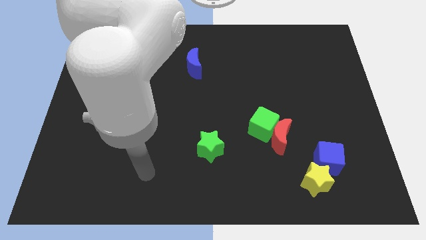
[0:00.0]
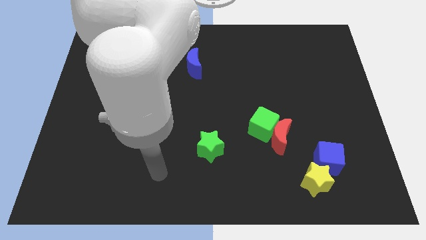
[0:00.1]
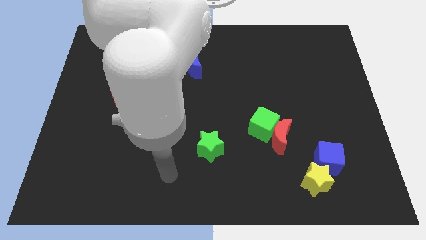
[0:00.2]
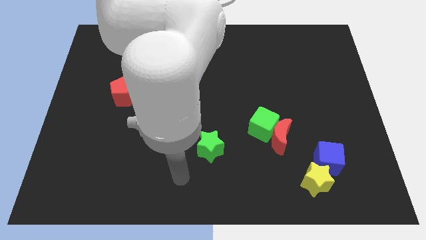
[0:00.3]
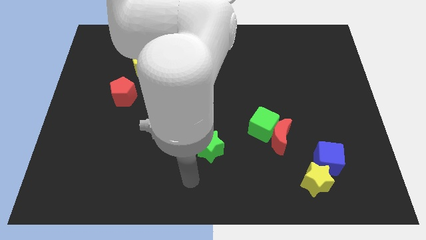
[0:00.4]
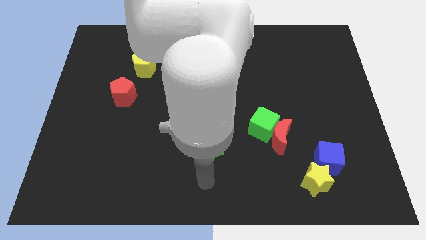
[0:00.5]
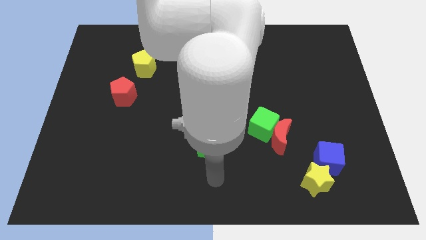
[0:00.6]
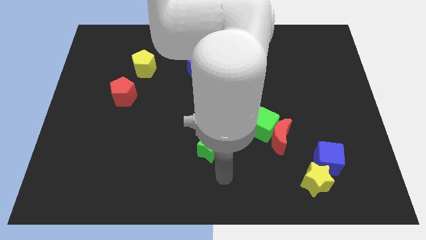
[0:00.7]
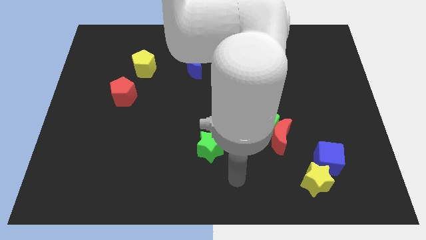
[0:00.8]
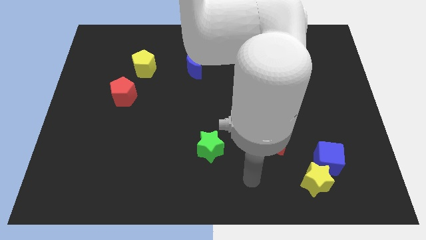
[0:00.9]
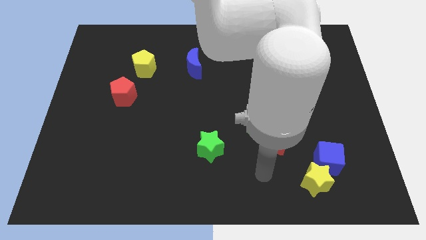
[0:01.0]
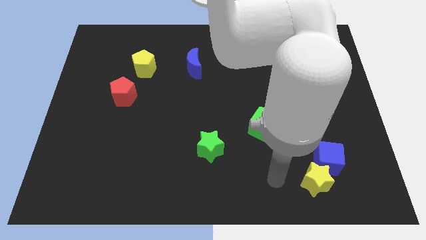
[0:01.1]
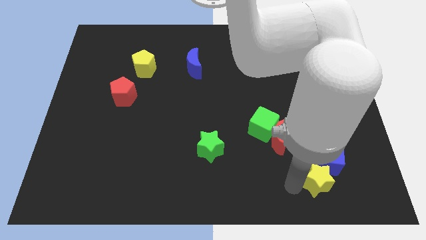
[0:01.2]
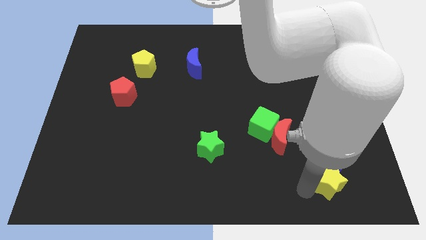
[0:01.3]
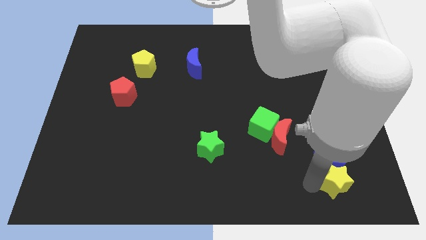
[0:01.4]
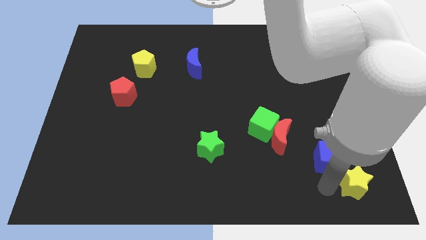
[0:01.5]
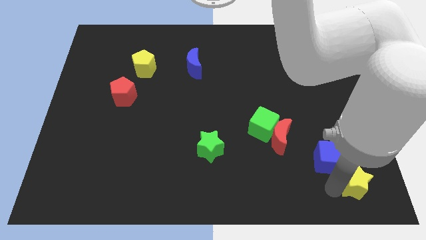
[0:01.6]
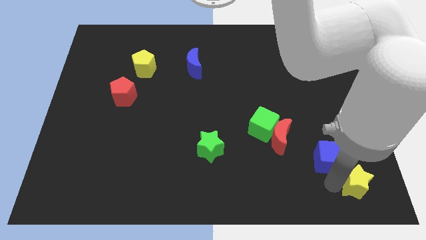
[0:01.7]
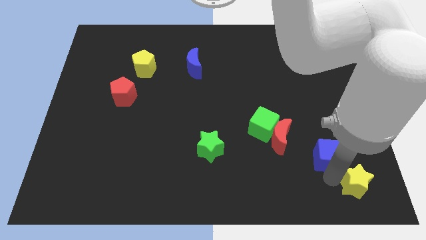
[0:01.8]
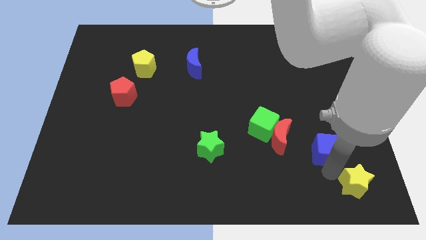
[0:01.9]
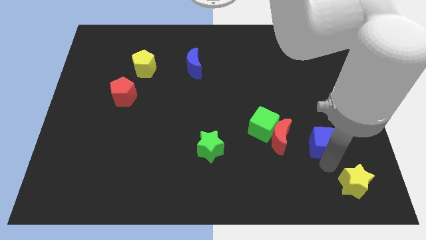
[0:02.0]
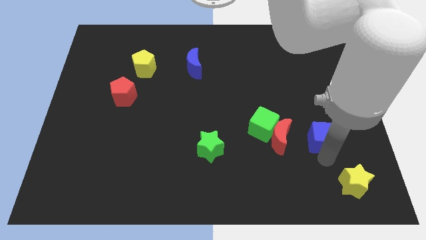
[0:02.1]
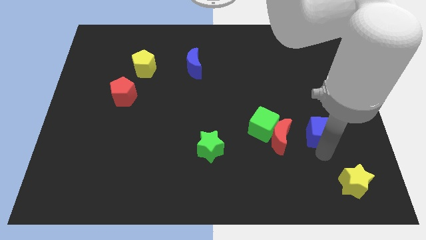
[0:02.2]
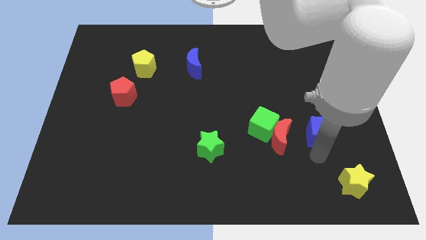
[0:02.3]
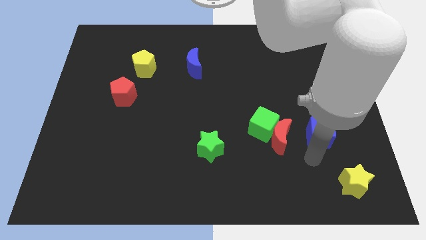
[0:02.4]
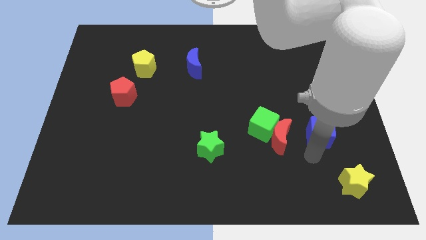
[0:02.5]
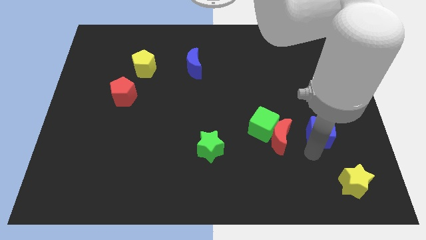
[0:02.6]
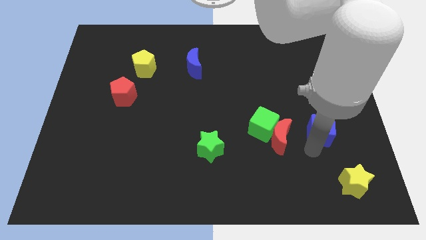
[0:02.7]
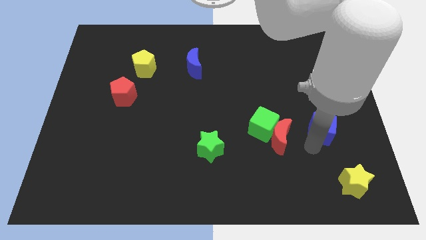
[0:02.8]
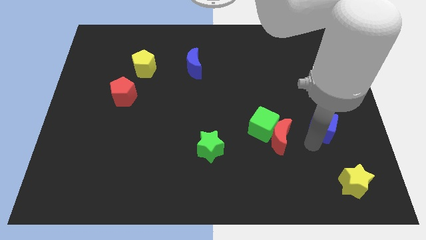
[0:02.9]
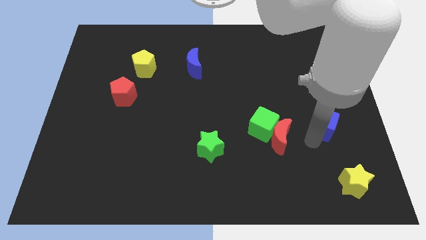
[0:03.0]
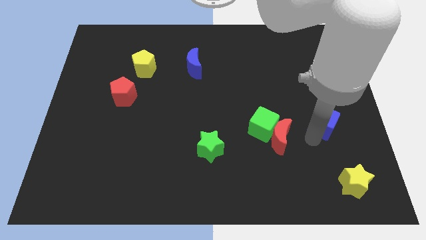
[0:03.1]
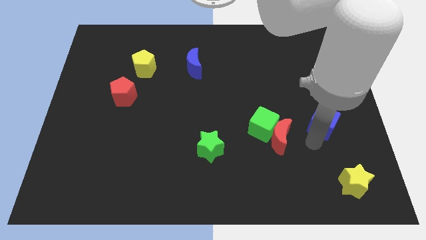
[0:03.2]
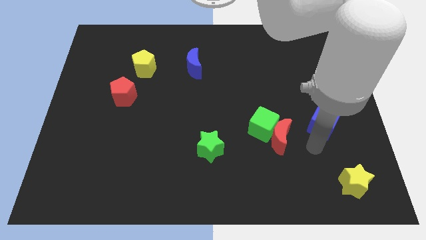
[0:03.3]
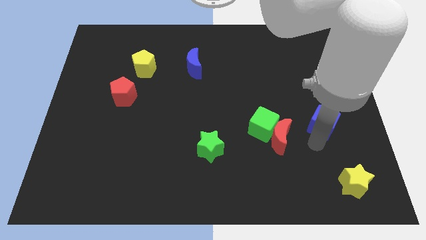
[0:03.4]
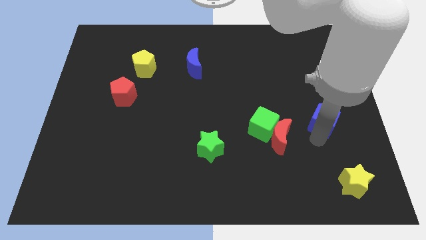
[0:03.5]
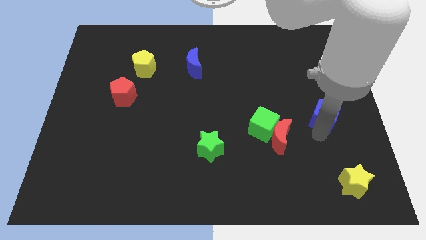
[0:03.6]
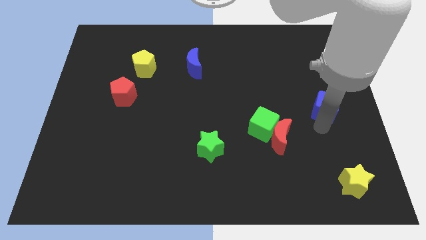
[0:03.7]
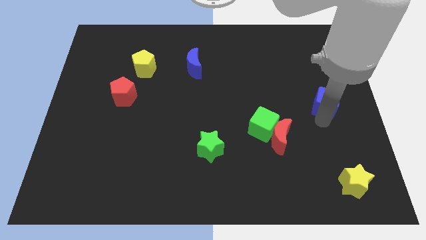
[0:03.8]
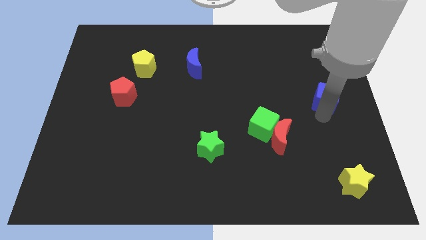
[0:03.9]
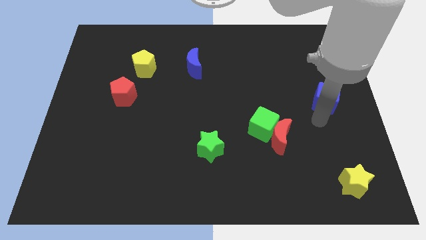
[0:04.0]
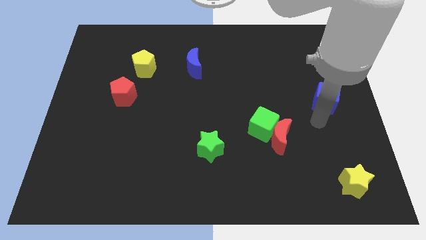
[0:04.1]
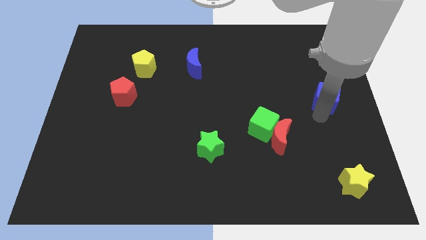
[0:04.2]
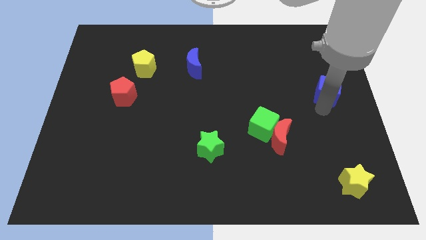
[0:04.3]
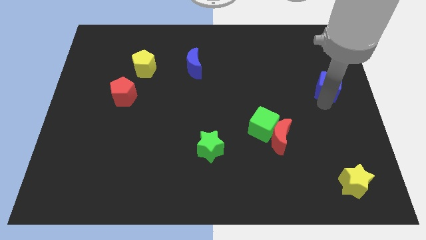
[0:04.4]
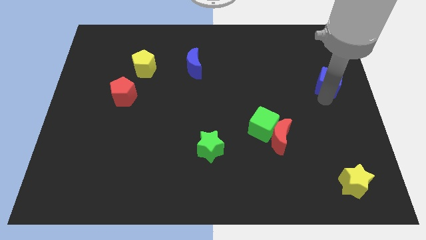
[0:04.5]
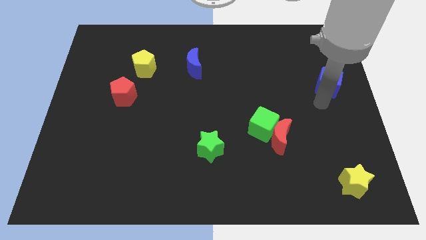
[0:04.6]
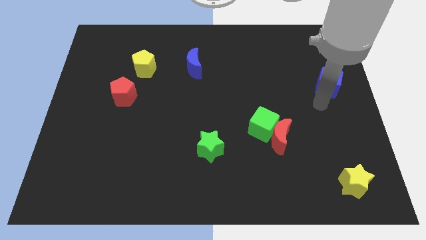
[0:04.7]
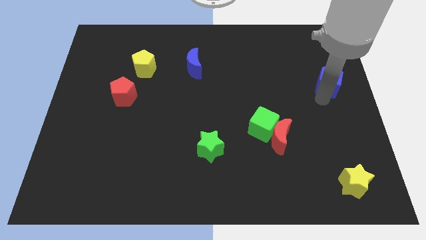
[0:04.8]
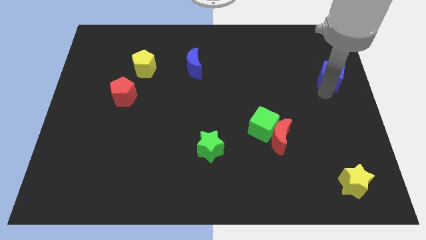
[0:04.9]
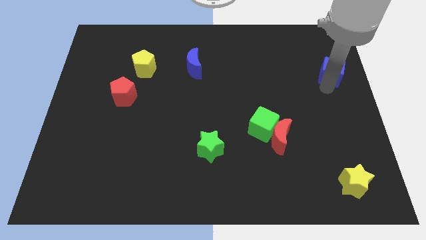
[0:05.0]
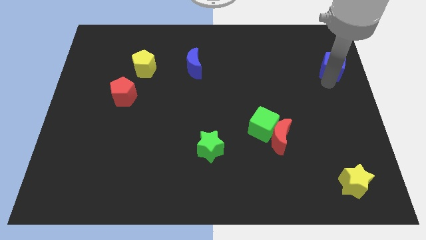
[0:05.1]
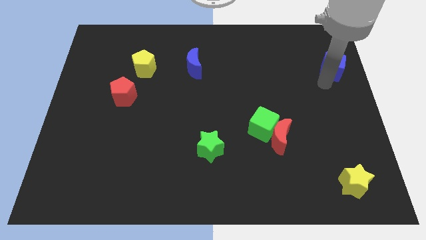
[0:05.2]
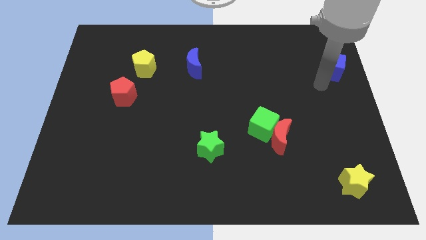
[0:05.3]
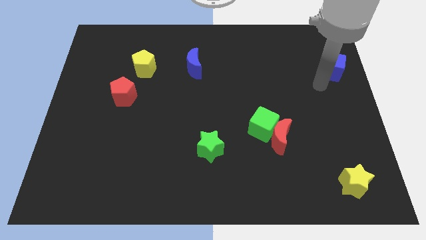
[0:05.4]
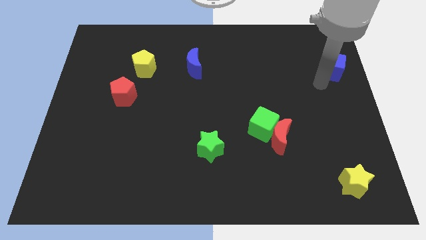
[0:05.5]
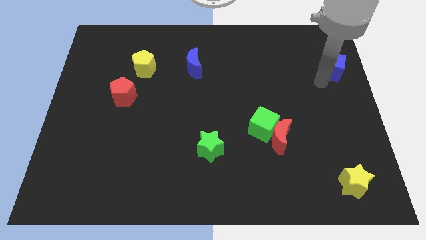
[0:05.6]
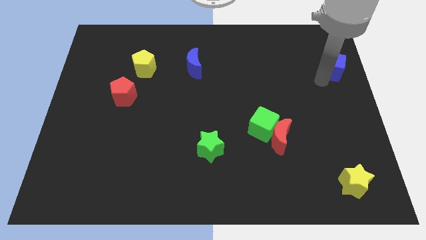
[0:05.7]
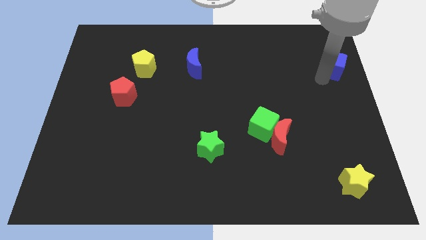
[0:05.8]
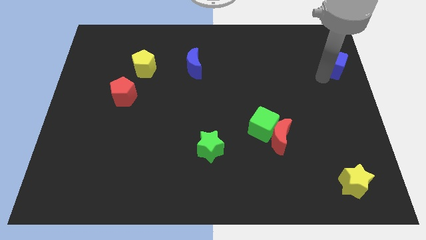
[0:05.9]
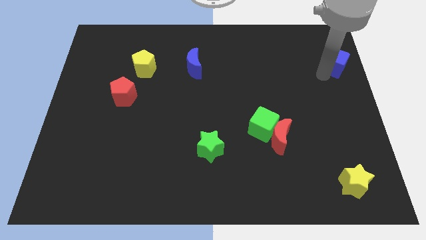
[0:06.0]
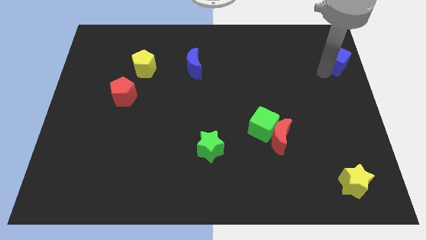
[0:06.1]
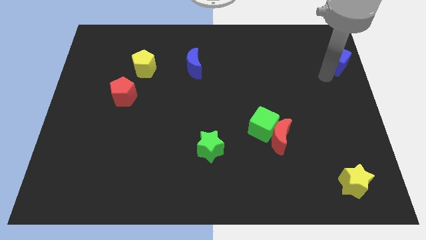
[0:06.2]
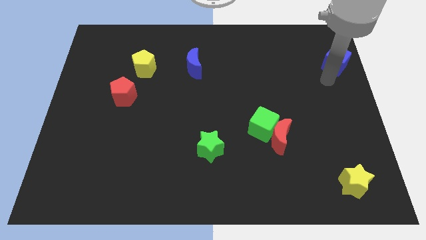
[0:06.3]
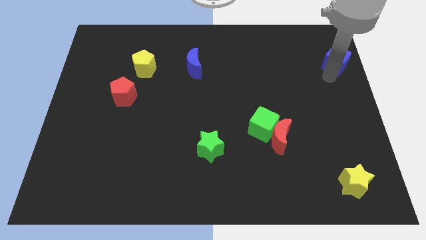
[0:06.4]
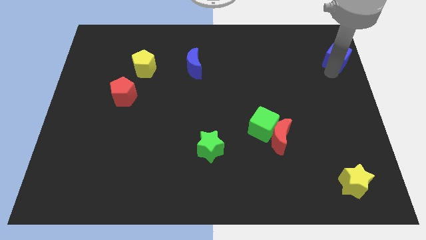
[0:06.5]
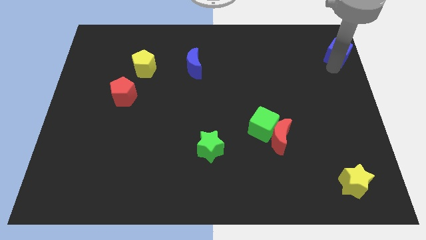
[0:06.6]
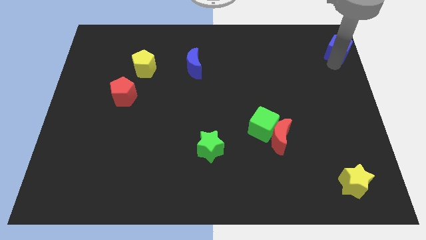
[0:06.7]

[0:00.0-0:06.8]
slide the blue cube to the top right of the board
